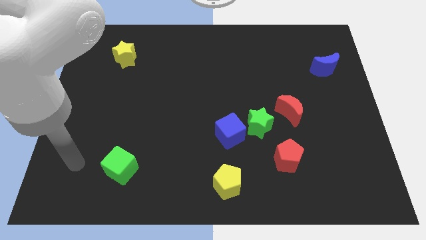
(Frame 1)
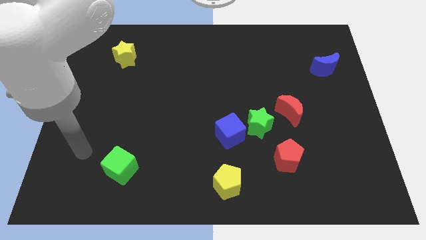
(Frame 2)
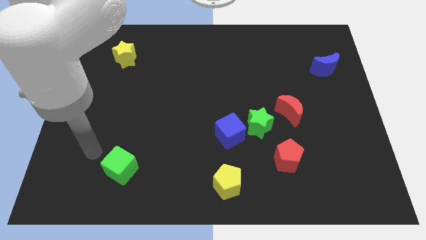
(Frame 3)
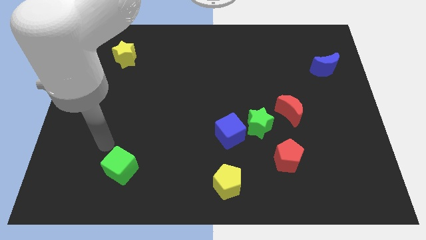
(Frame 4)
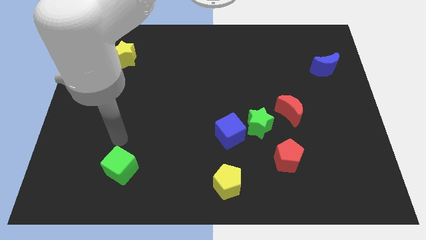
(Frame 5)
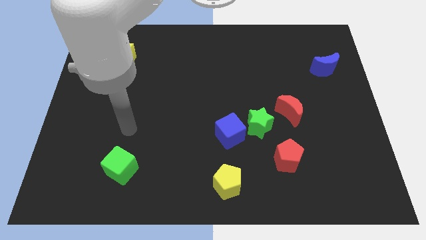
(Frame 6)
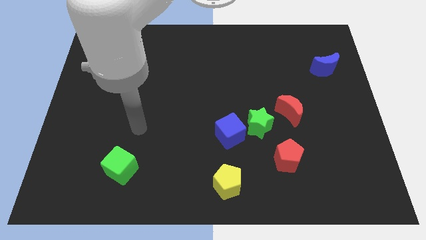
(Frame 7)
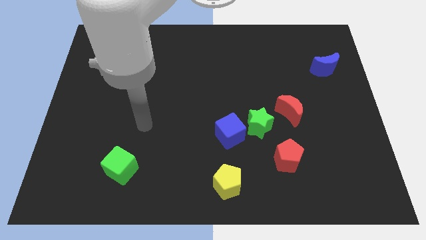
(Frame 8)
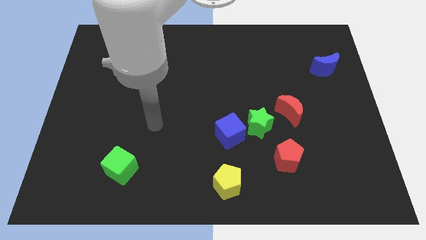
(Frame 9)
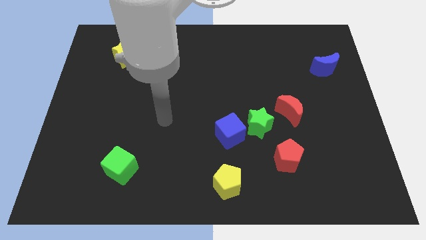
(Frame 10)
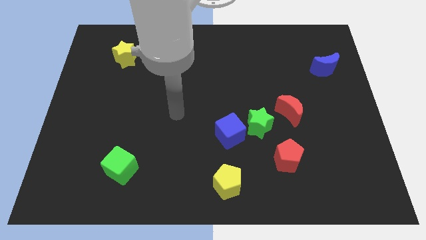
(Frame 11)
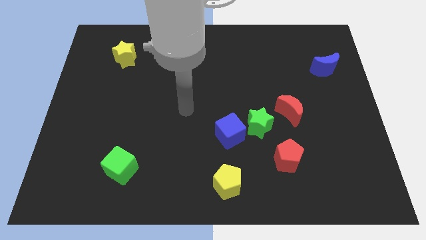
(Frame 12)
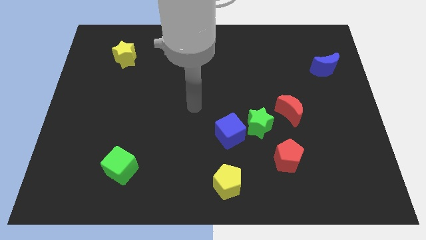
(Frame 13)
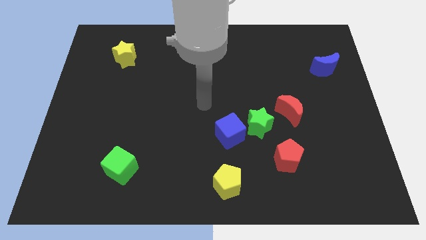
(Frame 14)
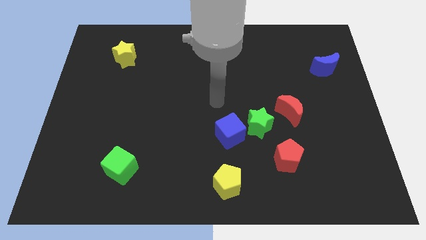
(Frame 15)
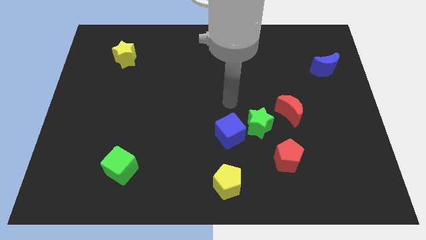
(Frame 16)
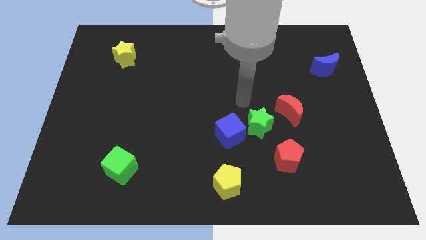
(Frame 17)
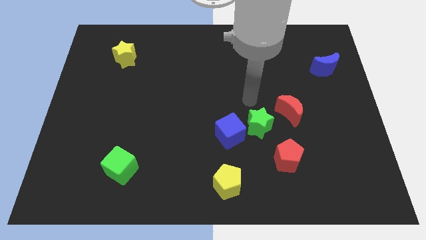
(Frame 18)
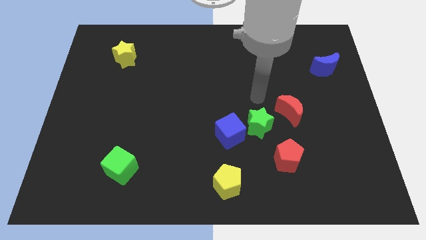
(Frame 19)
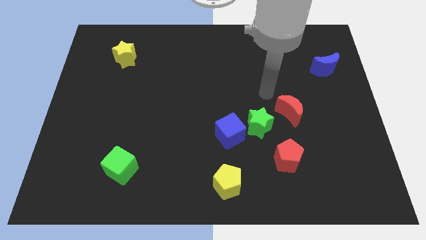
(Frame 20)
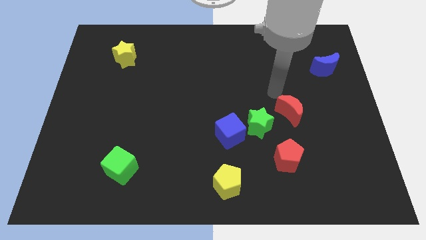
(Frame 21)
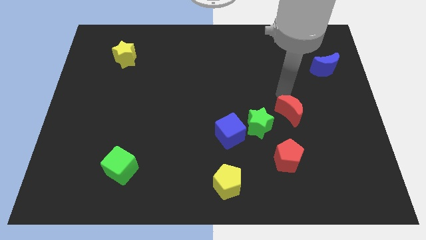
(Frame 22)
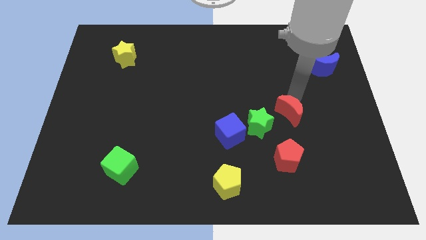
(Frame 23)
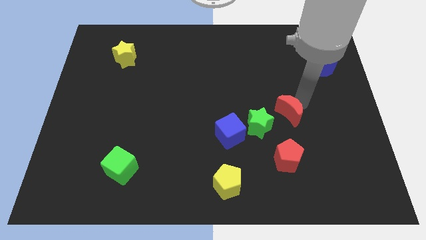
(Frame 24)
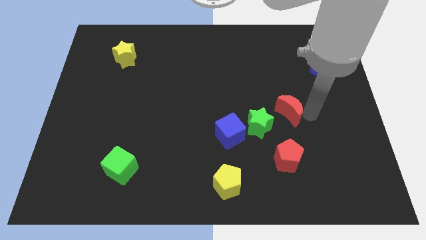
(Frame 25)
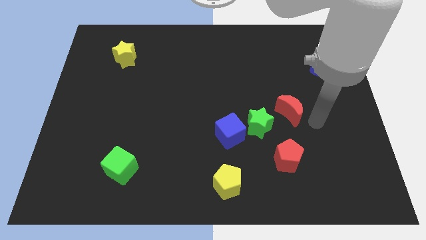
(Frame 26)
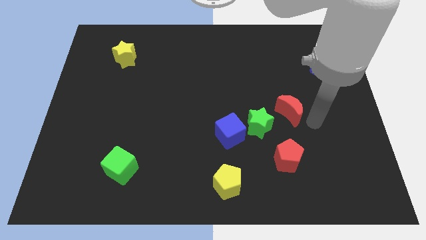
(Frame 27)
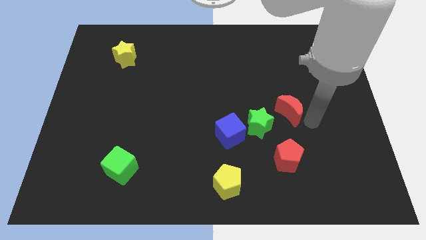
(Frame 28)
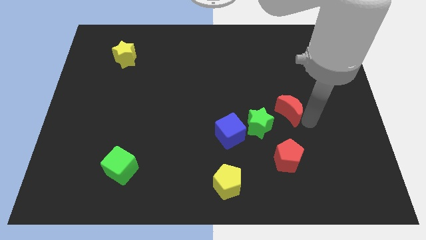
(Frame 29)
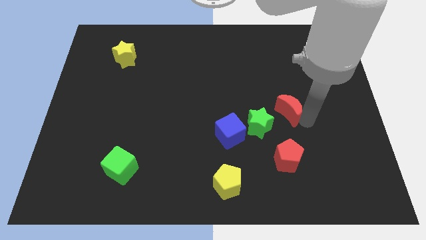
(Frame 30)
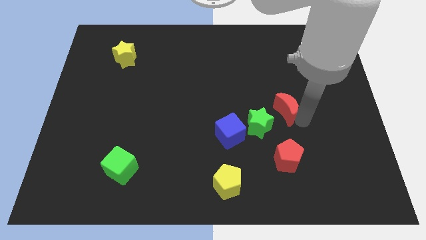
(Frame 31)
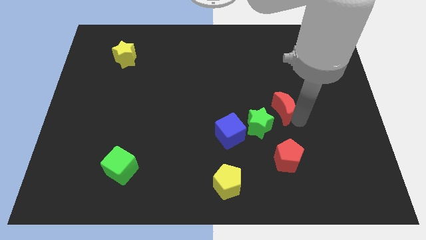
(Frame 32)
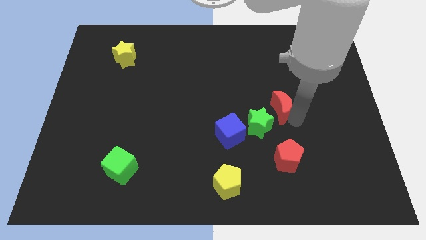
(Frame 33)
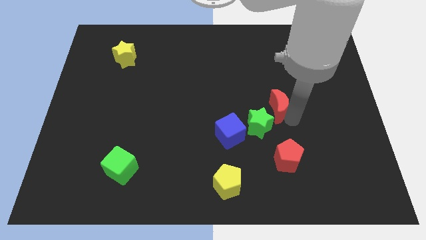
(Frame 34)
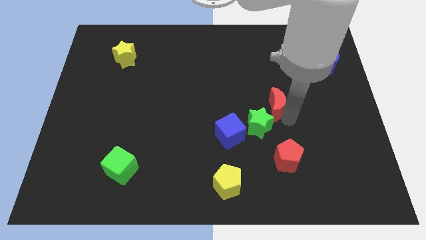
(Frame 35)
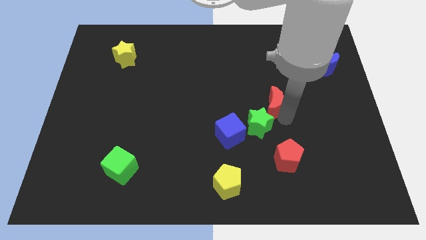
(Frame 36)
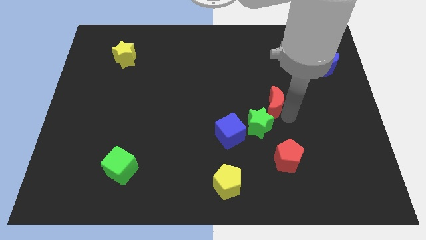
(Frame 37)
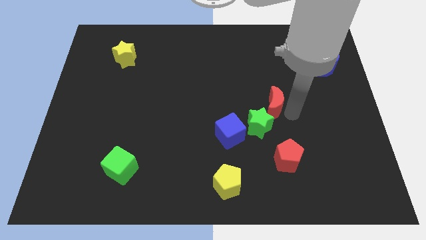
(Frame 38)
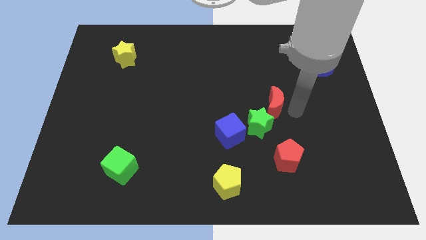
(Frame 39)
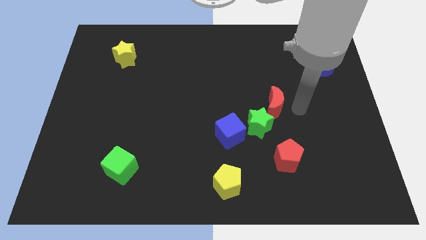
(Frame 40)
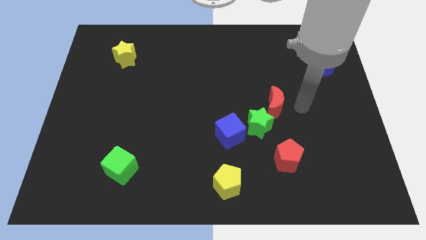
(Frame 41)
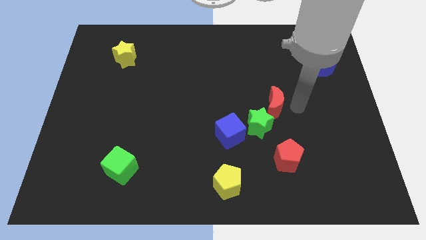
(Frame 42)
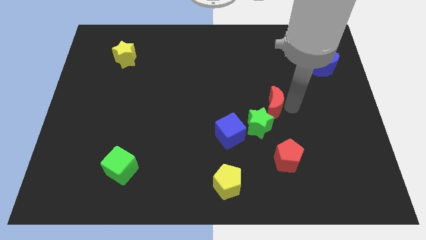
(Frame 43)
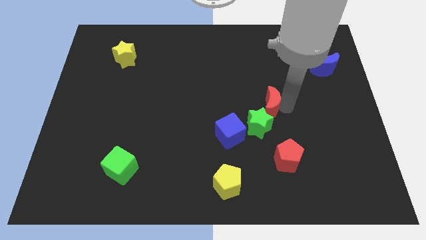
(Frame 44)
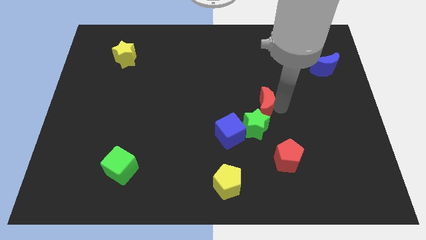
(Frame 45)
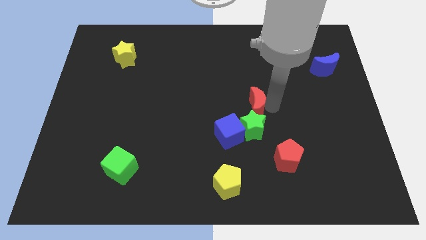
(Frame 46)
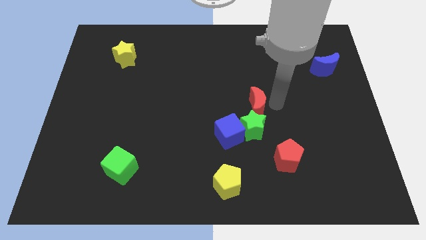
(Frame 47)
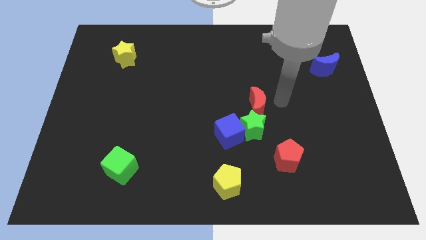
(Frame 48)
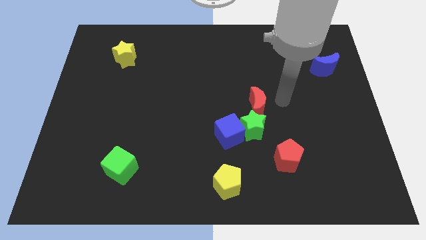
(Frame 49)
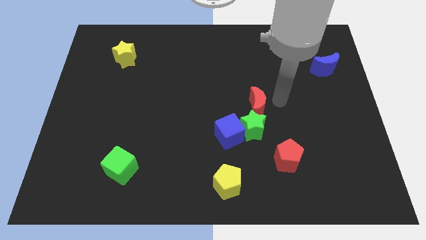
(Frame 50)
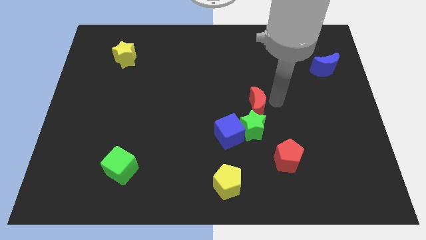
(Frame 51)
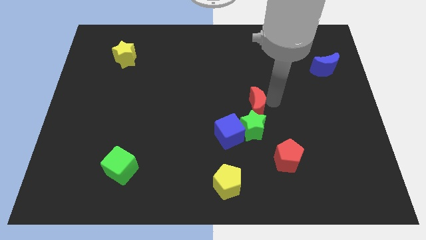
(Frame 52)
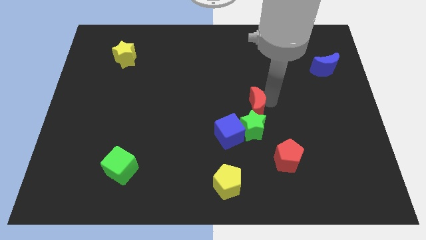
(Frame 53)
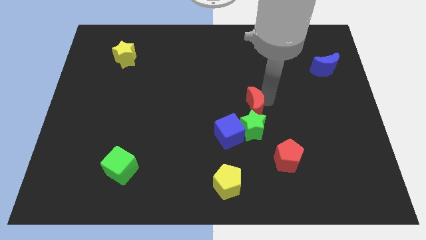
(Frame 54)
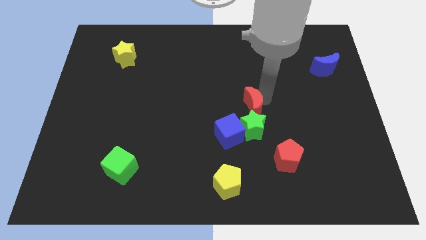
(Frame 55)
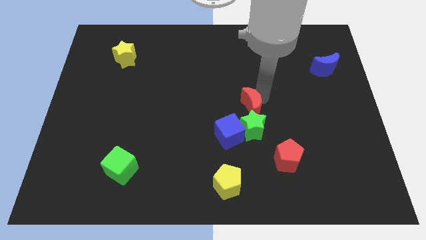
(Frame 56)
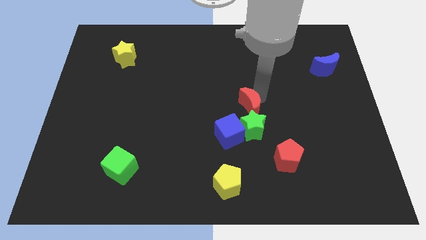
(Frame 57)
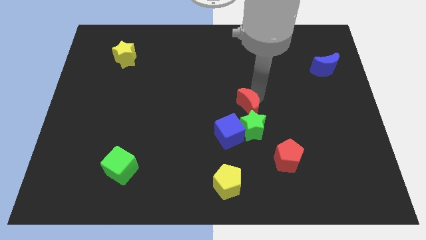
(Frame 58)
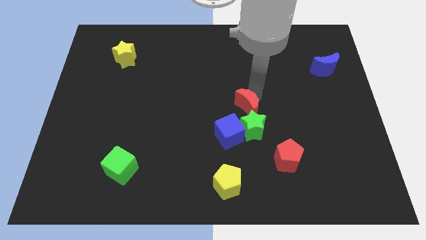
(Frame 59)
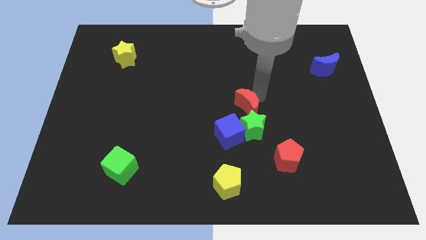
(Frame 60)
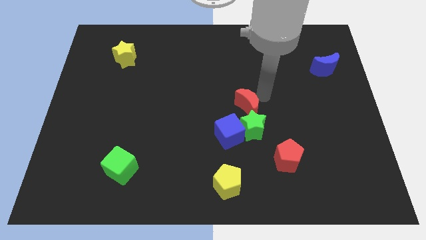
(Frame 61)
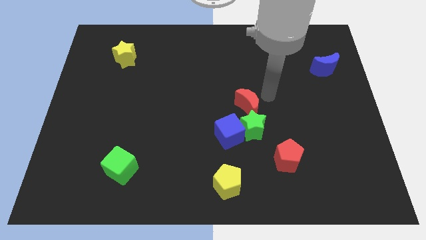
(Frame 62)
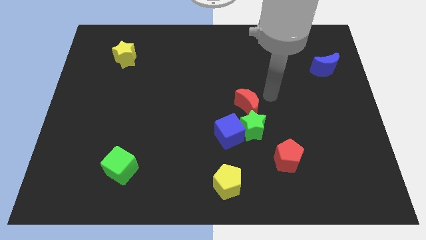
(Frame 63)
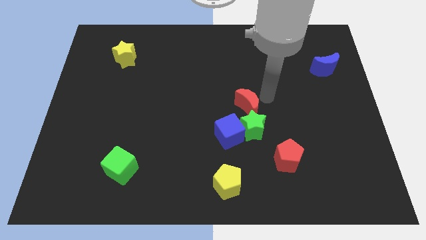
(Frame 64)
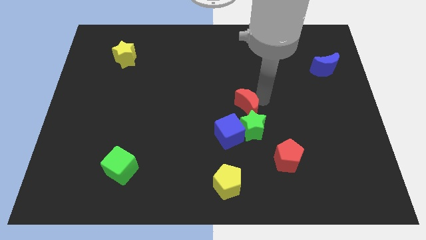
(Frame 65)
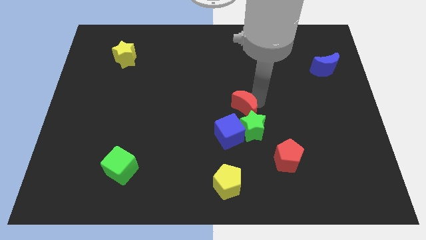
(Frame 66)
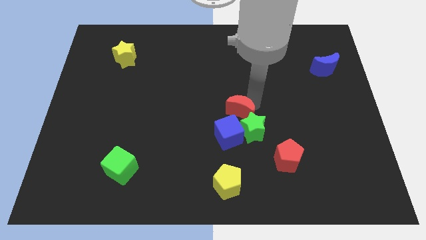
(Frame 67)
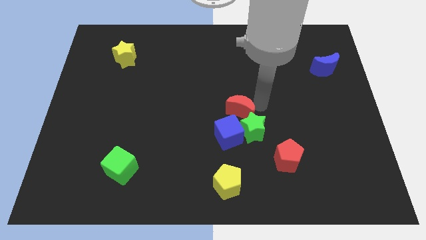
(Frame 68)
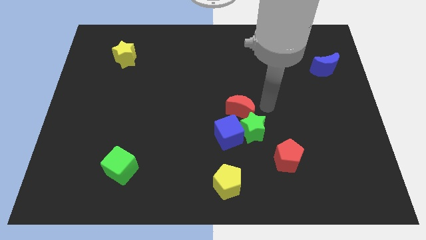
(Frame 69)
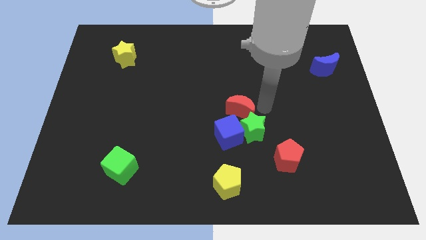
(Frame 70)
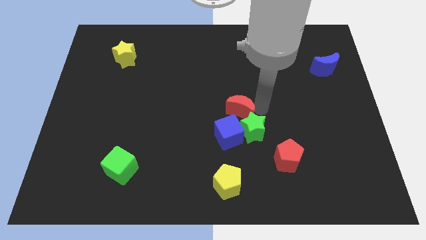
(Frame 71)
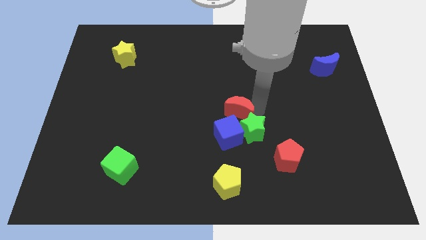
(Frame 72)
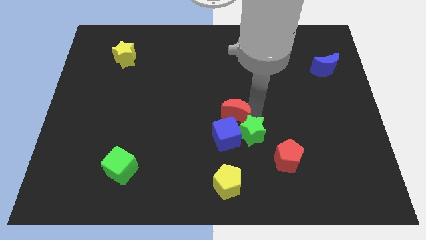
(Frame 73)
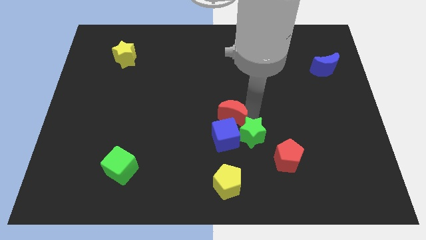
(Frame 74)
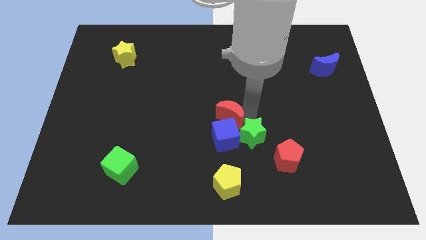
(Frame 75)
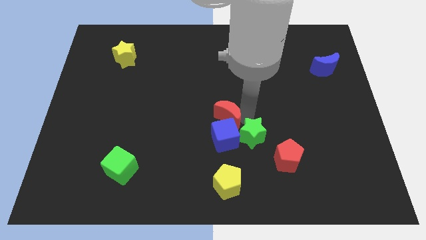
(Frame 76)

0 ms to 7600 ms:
move the red moon to the top left side of the blue cube
